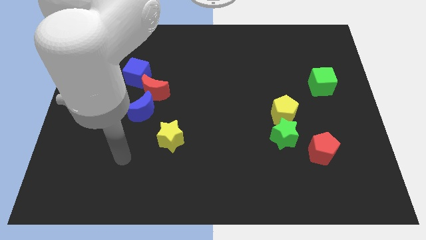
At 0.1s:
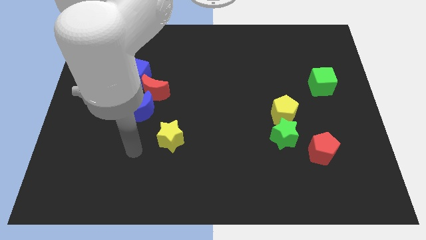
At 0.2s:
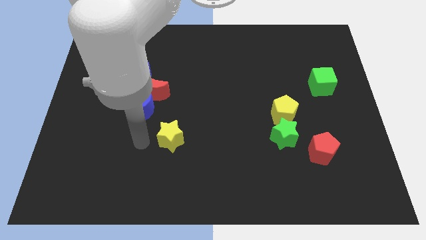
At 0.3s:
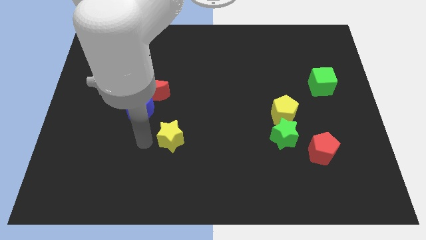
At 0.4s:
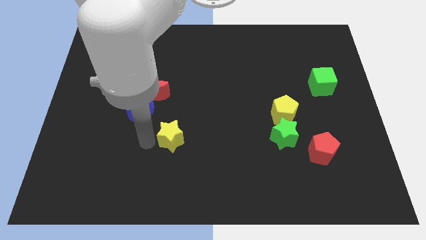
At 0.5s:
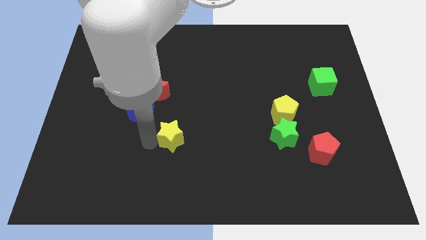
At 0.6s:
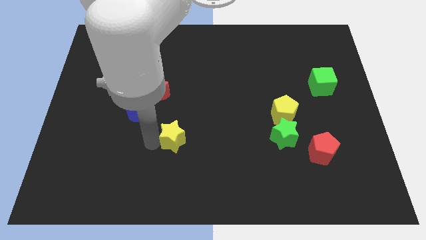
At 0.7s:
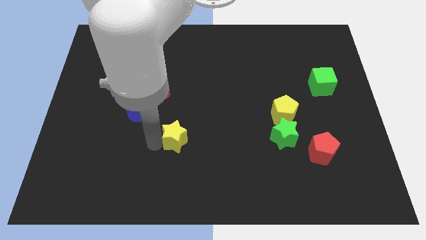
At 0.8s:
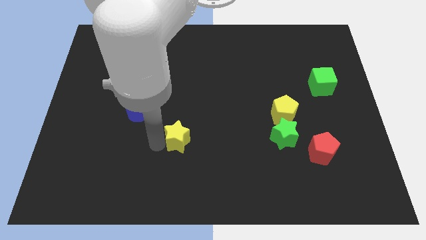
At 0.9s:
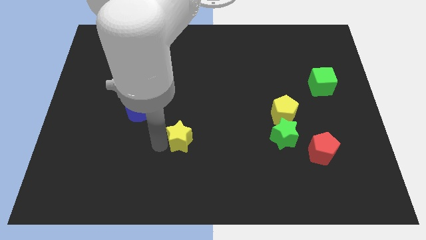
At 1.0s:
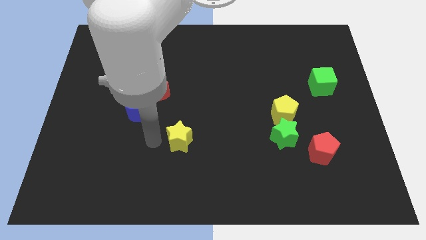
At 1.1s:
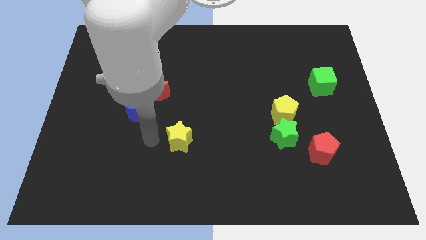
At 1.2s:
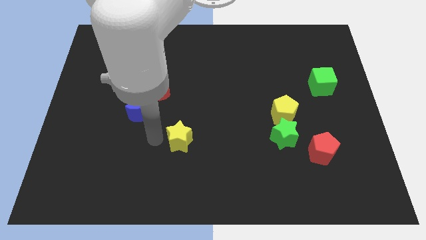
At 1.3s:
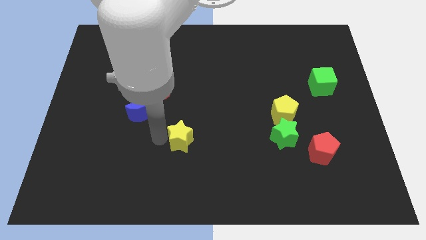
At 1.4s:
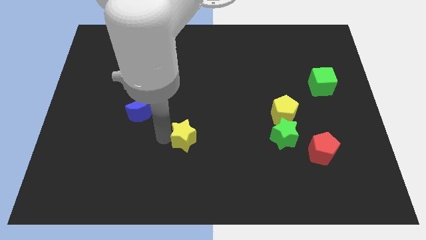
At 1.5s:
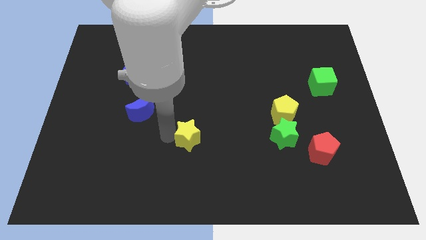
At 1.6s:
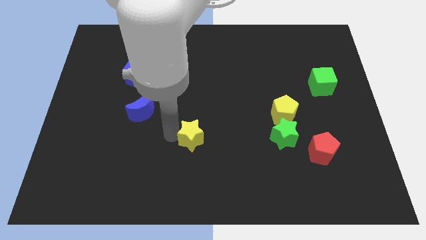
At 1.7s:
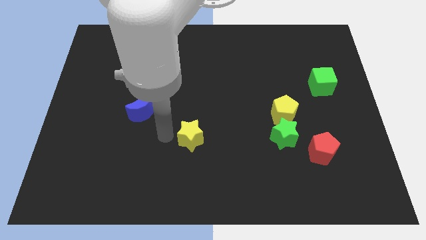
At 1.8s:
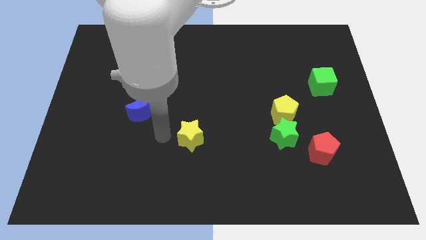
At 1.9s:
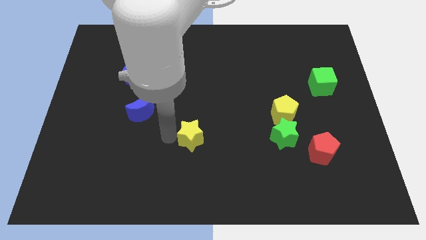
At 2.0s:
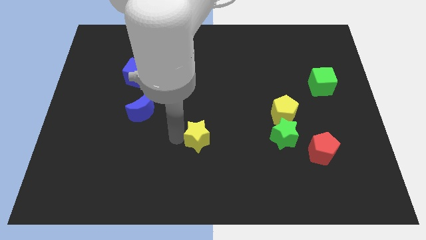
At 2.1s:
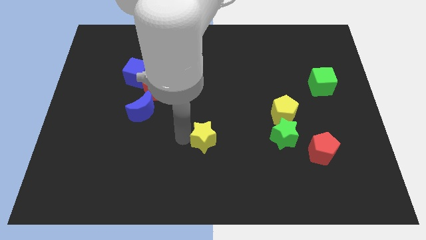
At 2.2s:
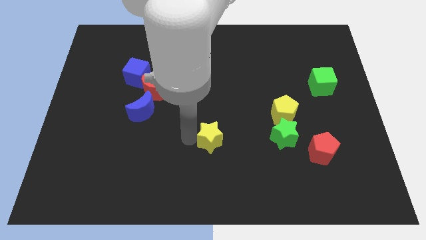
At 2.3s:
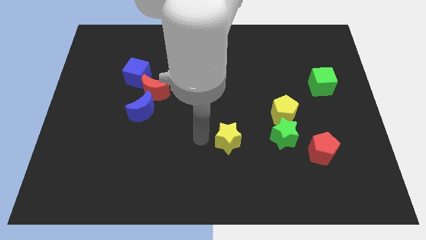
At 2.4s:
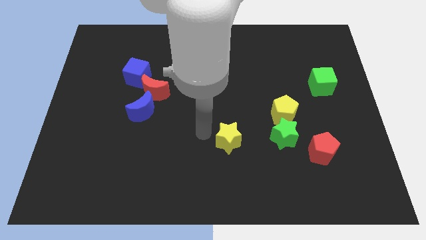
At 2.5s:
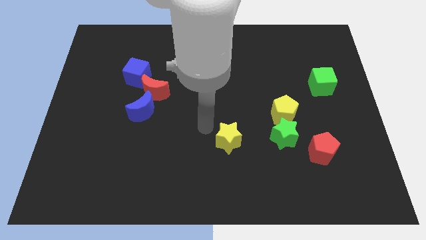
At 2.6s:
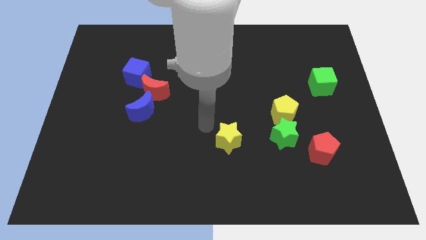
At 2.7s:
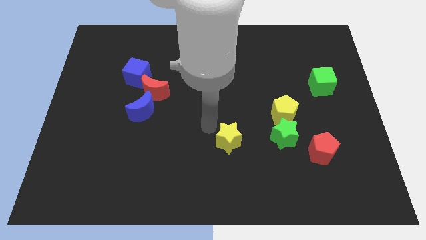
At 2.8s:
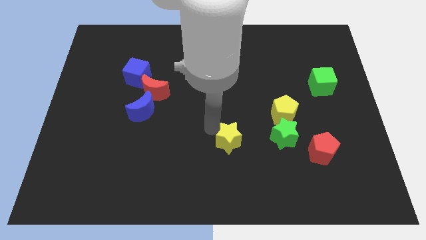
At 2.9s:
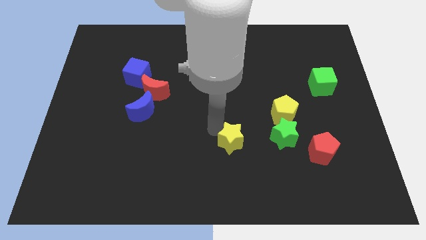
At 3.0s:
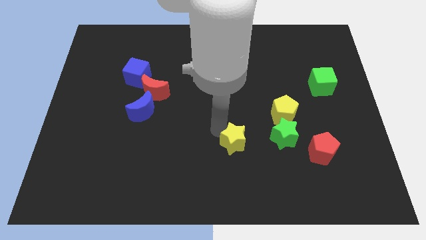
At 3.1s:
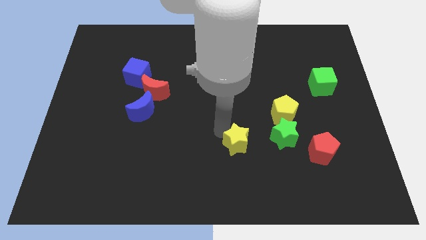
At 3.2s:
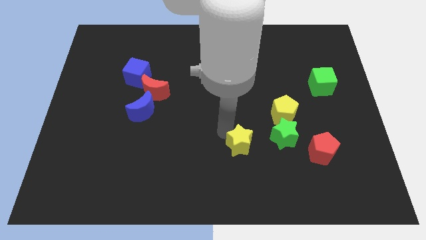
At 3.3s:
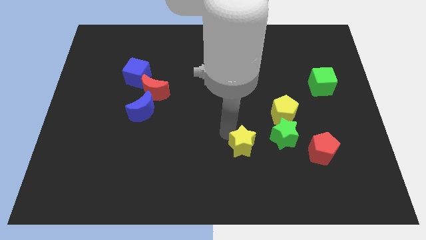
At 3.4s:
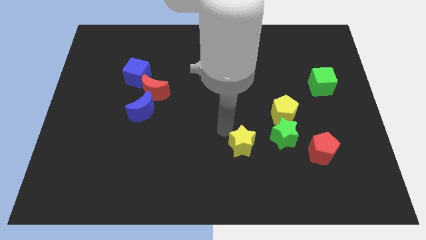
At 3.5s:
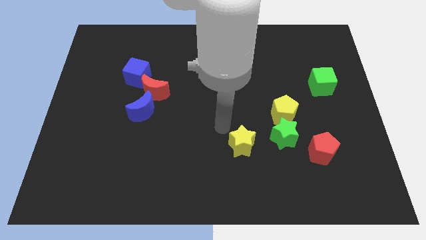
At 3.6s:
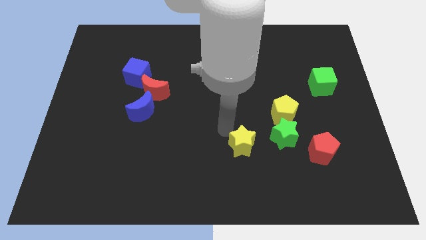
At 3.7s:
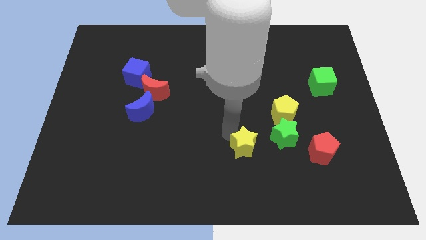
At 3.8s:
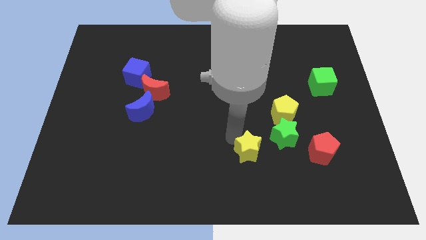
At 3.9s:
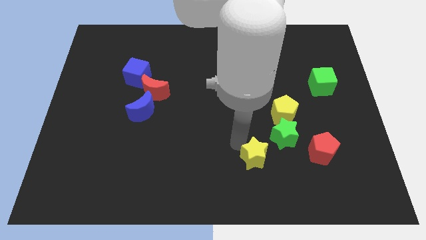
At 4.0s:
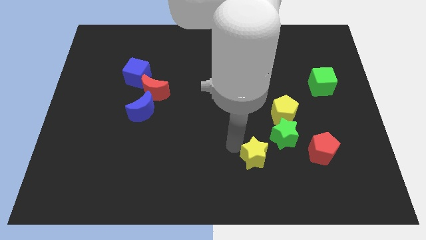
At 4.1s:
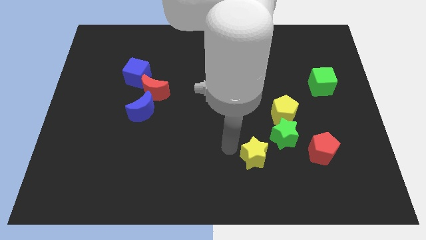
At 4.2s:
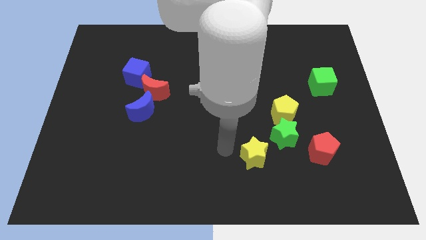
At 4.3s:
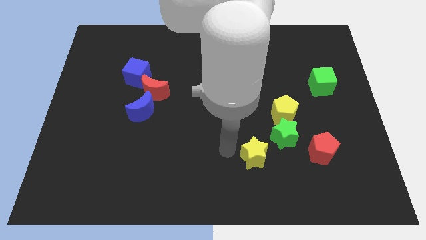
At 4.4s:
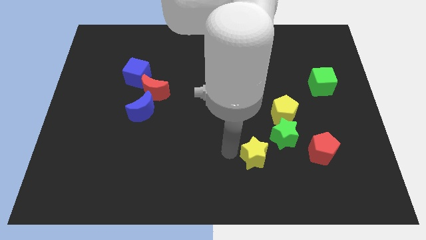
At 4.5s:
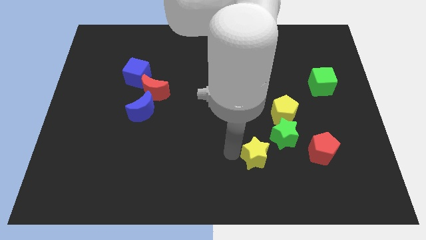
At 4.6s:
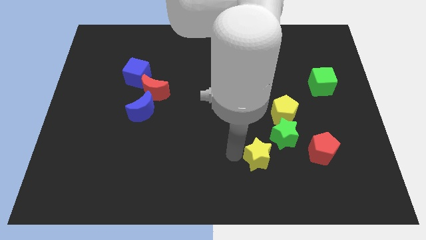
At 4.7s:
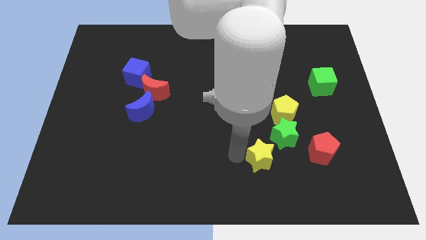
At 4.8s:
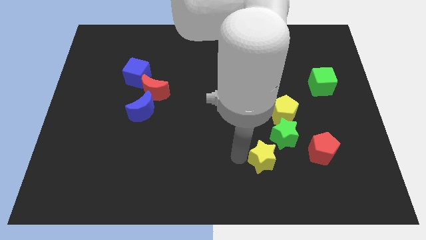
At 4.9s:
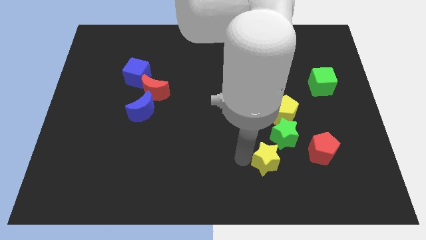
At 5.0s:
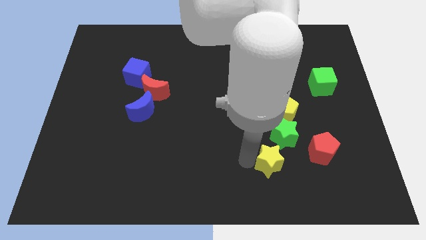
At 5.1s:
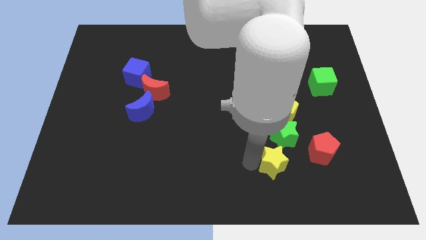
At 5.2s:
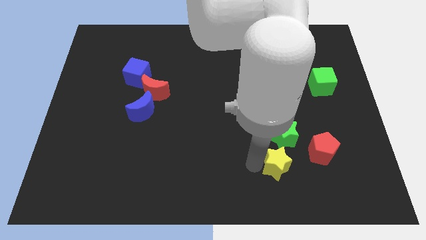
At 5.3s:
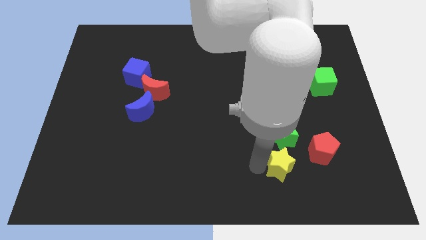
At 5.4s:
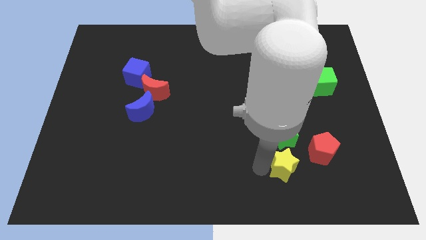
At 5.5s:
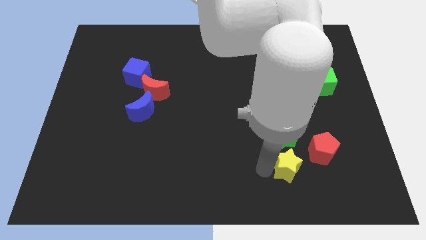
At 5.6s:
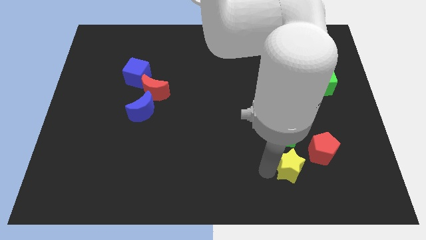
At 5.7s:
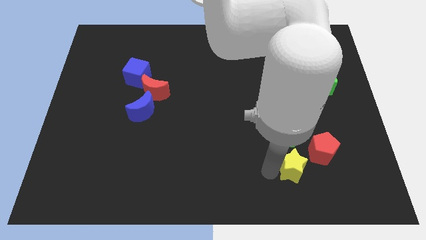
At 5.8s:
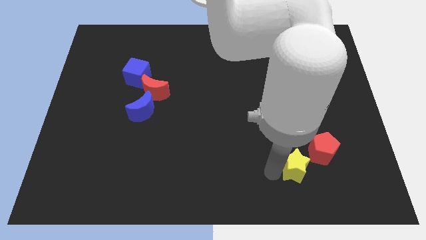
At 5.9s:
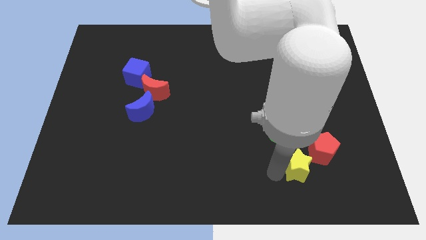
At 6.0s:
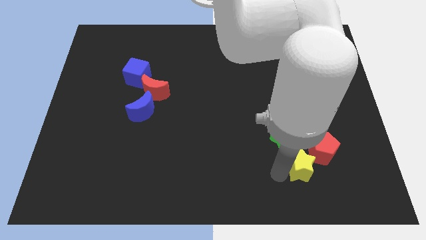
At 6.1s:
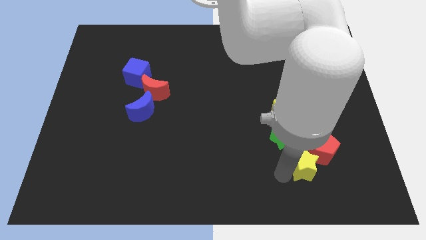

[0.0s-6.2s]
put the yellow star to the red pentagon

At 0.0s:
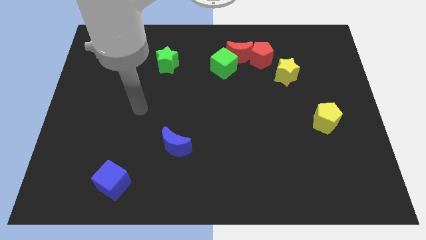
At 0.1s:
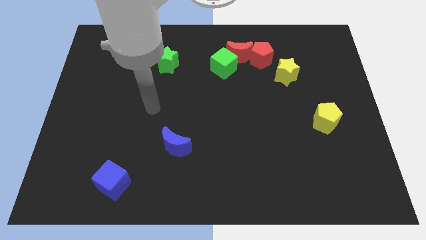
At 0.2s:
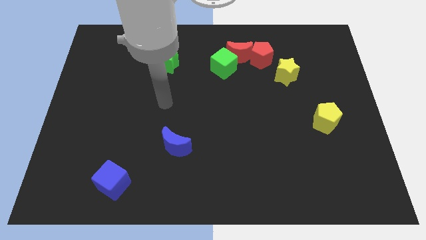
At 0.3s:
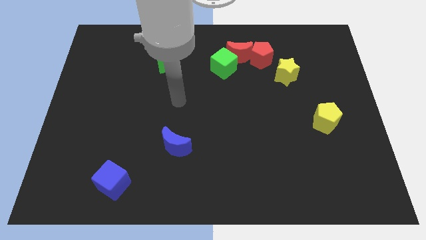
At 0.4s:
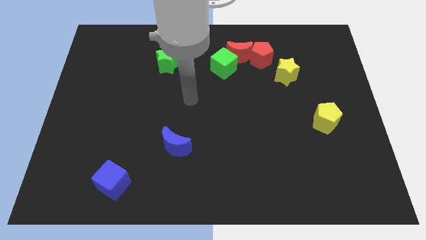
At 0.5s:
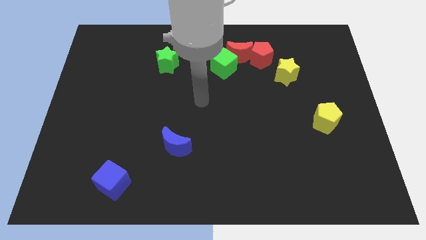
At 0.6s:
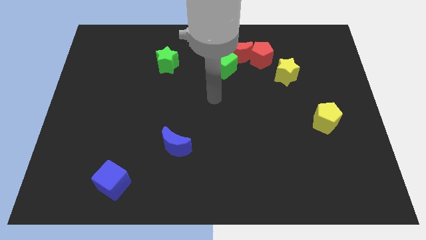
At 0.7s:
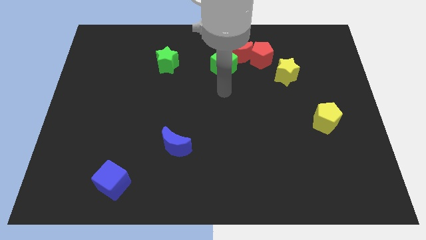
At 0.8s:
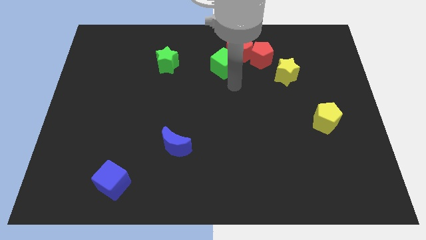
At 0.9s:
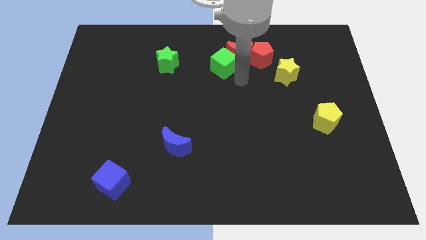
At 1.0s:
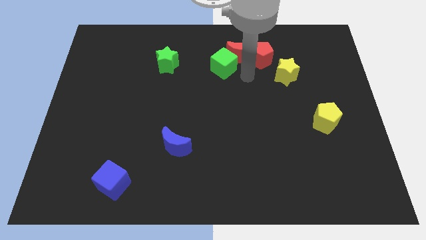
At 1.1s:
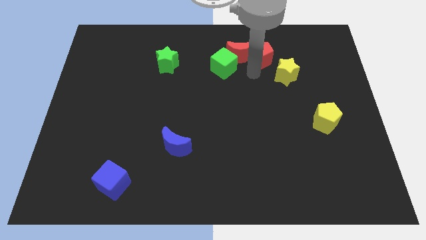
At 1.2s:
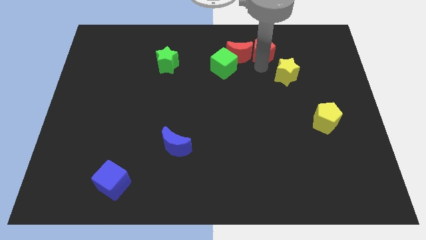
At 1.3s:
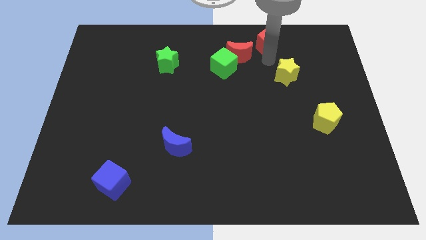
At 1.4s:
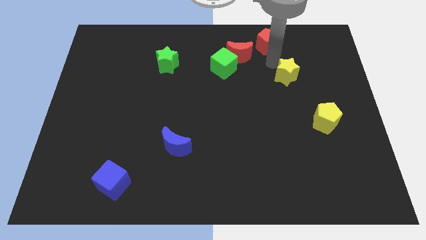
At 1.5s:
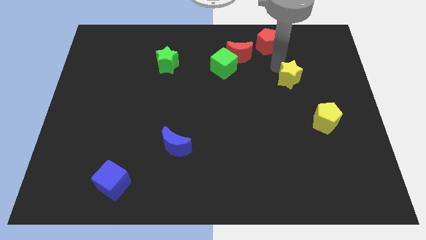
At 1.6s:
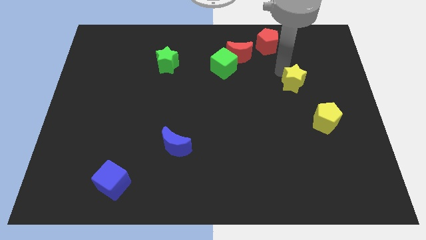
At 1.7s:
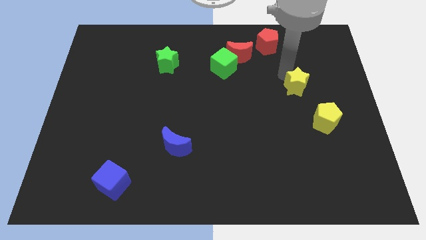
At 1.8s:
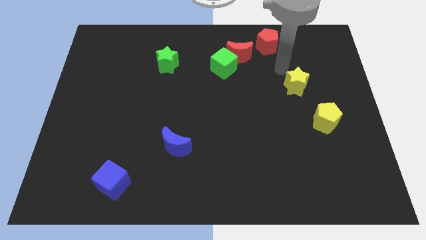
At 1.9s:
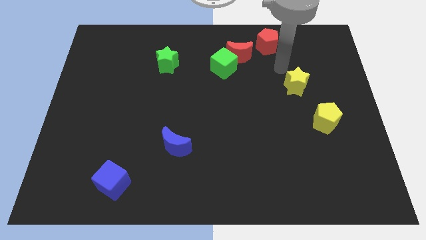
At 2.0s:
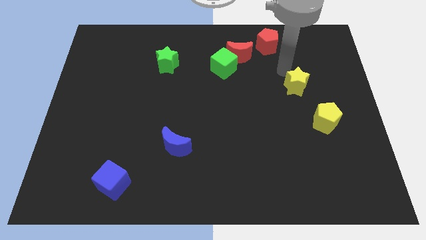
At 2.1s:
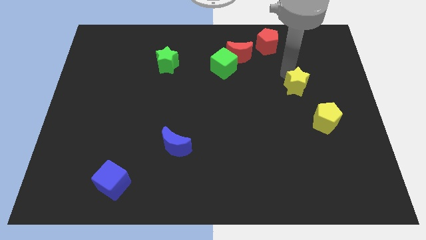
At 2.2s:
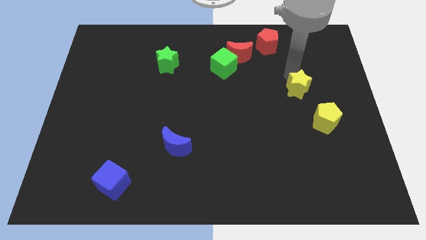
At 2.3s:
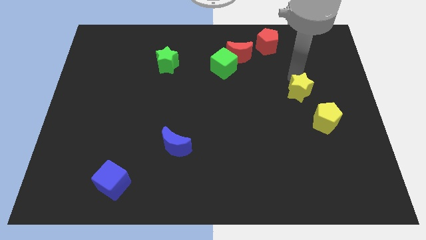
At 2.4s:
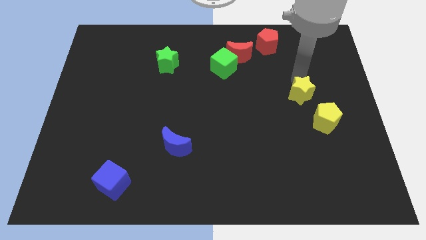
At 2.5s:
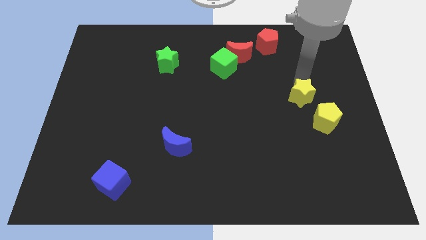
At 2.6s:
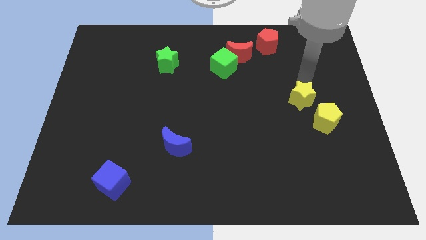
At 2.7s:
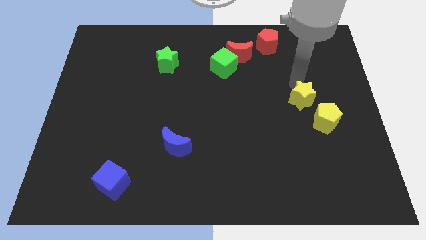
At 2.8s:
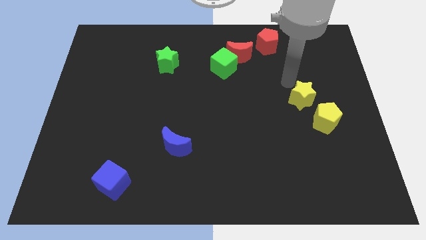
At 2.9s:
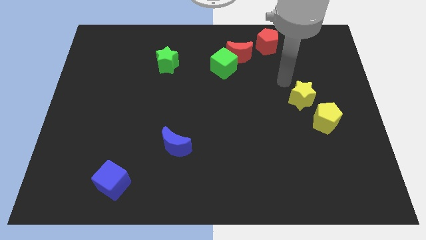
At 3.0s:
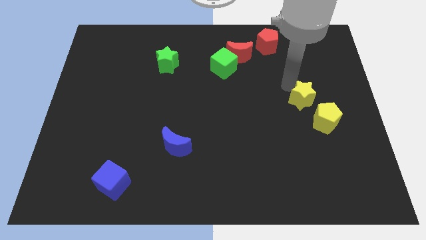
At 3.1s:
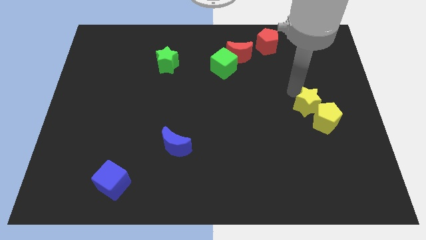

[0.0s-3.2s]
slide the yellow star towards the yellow pentagon
